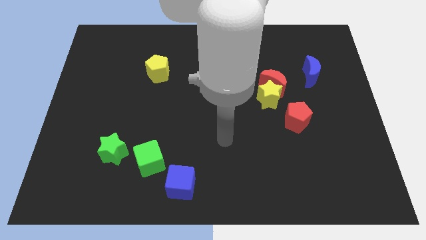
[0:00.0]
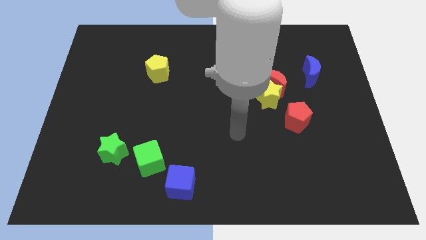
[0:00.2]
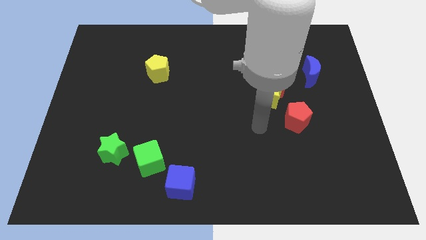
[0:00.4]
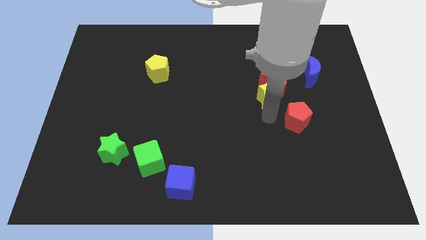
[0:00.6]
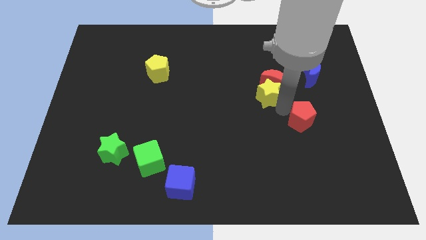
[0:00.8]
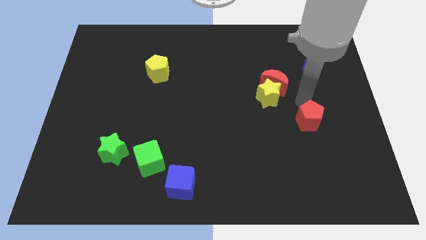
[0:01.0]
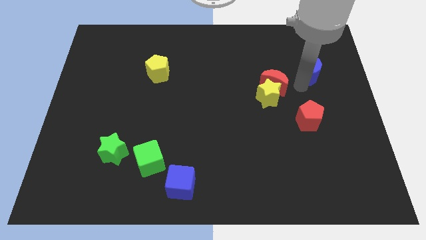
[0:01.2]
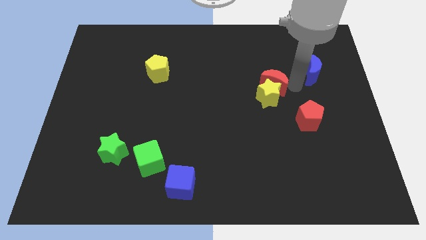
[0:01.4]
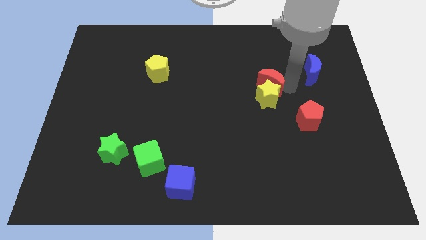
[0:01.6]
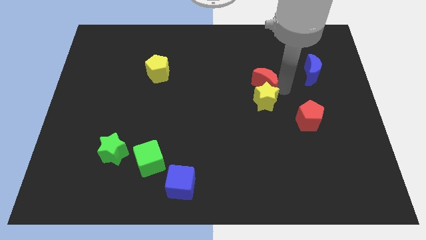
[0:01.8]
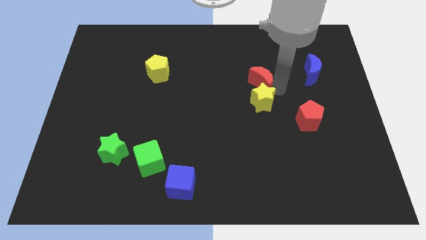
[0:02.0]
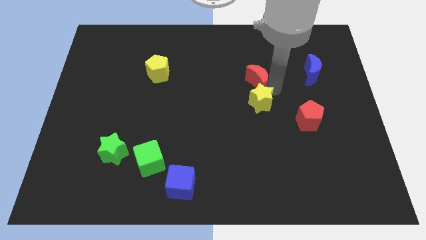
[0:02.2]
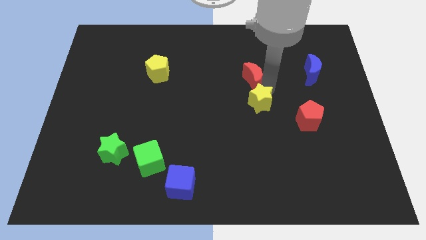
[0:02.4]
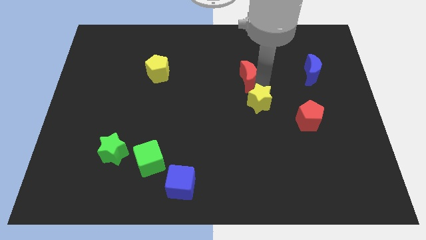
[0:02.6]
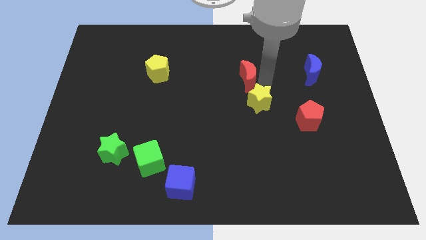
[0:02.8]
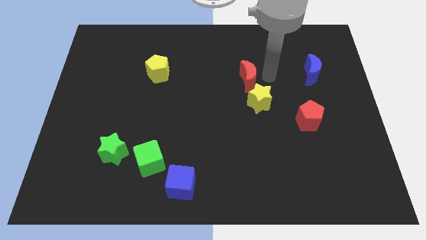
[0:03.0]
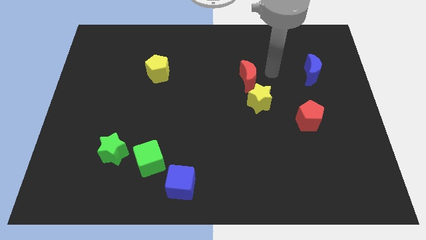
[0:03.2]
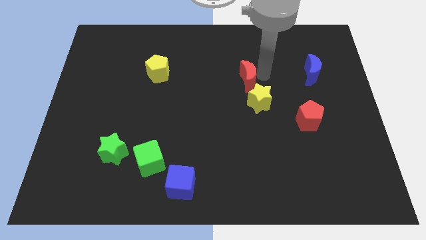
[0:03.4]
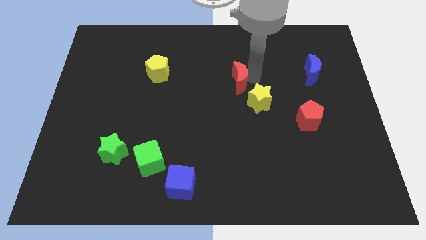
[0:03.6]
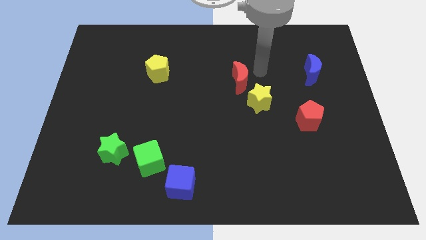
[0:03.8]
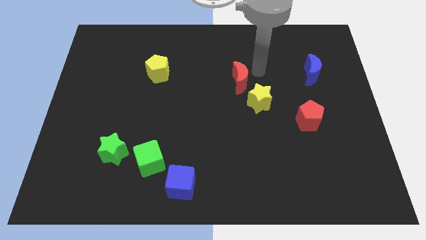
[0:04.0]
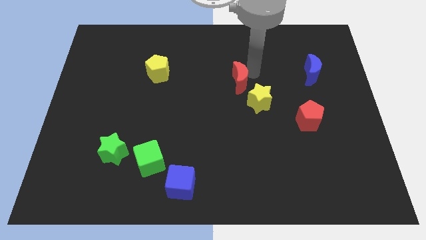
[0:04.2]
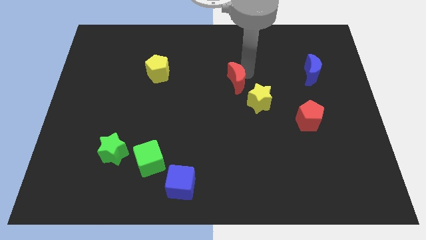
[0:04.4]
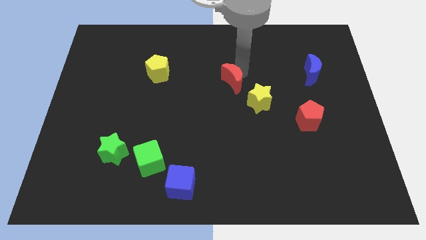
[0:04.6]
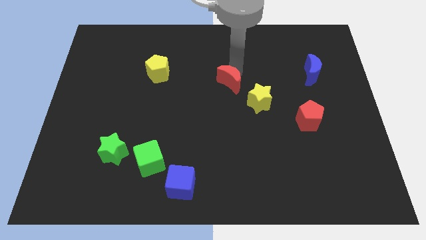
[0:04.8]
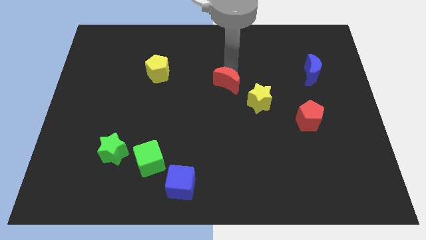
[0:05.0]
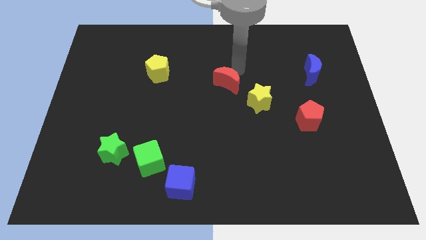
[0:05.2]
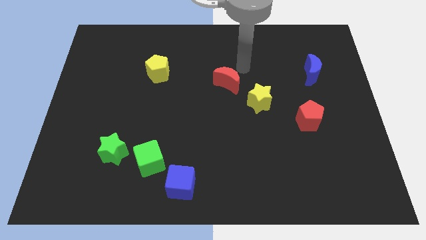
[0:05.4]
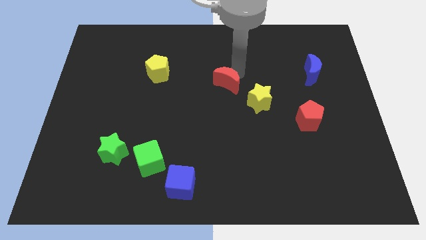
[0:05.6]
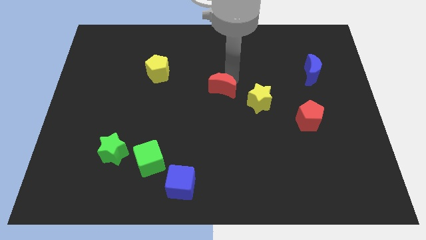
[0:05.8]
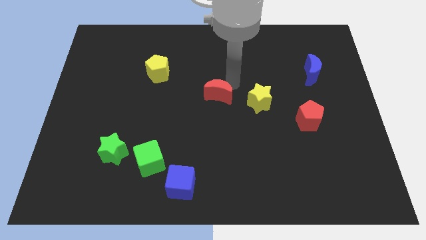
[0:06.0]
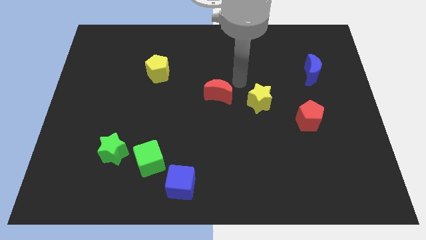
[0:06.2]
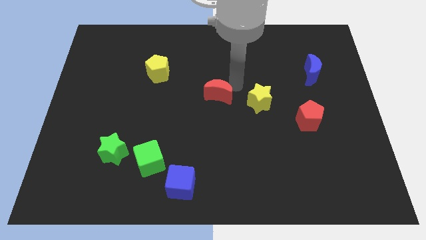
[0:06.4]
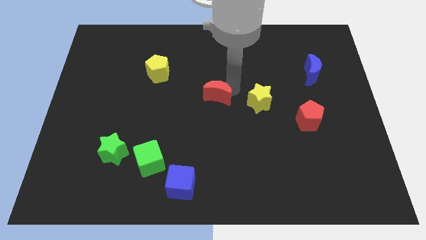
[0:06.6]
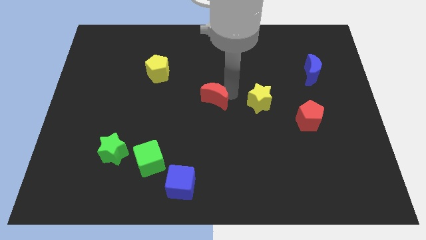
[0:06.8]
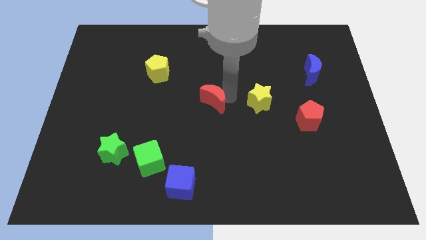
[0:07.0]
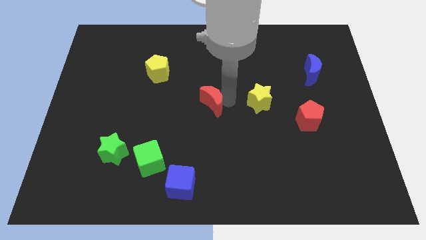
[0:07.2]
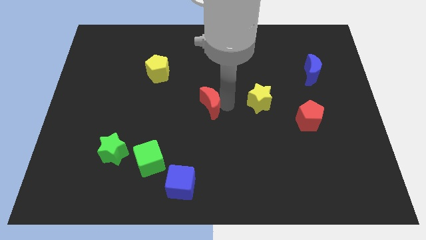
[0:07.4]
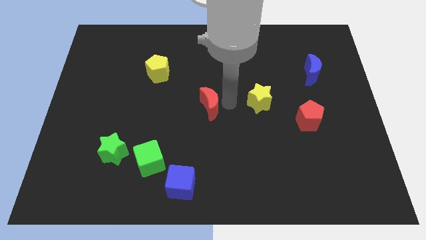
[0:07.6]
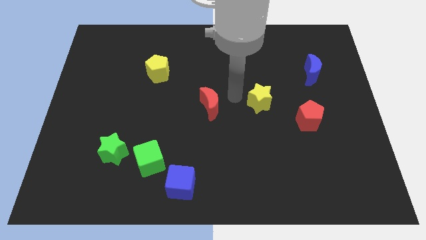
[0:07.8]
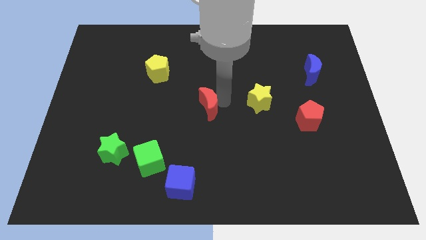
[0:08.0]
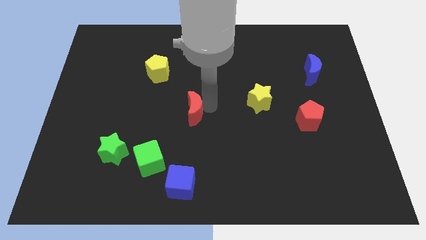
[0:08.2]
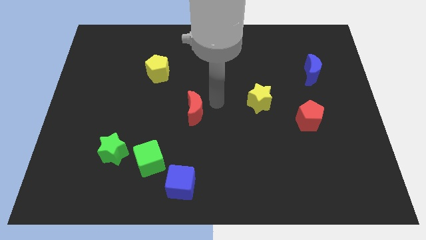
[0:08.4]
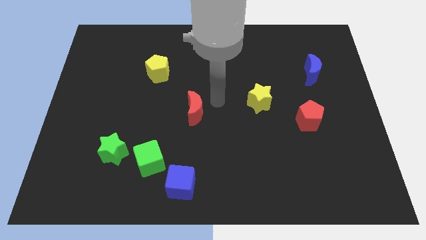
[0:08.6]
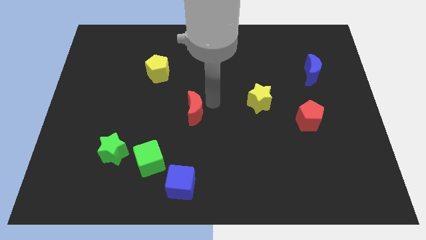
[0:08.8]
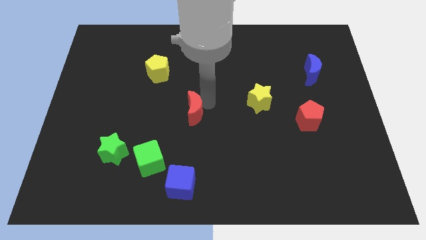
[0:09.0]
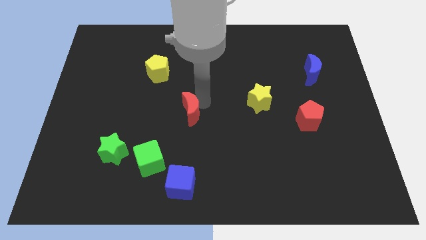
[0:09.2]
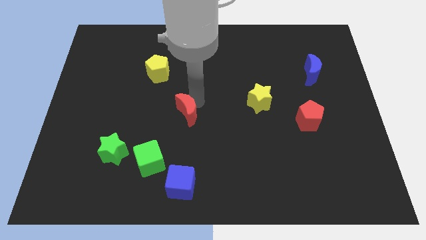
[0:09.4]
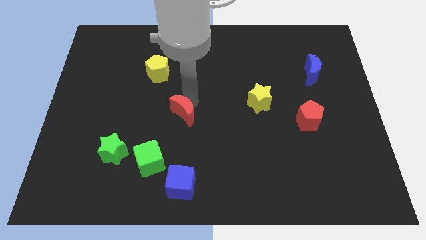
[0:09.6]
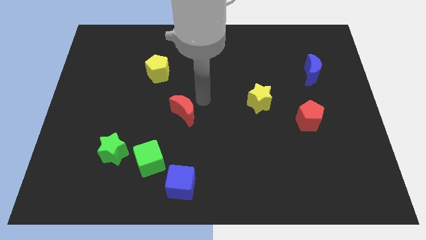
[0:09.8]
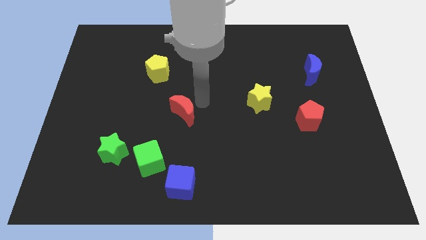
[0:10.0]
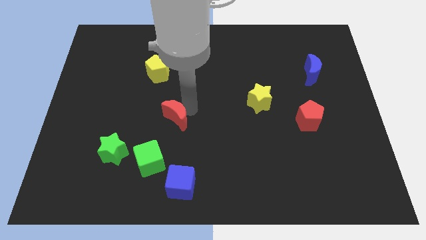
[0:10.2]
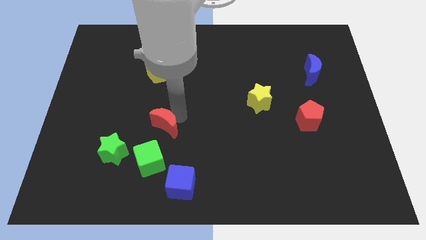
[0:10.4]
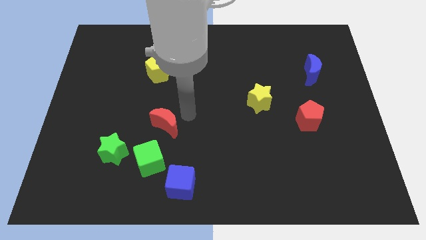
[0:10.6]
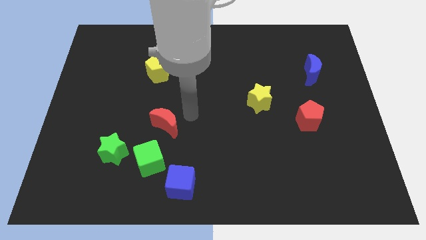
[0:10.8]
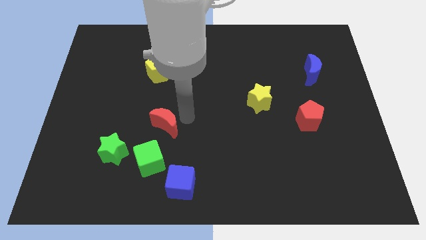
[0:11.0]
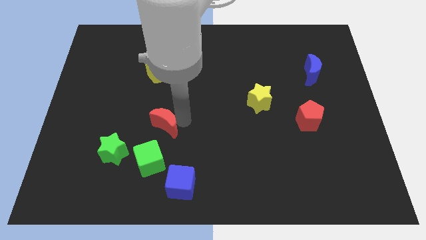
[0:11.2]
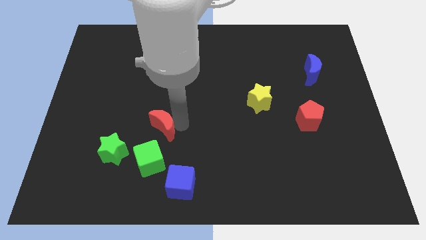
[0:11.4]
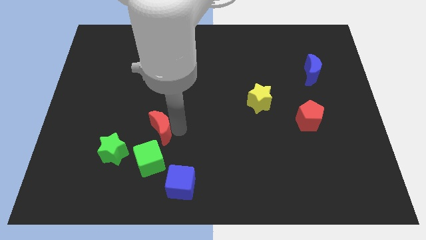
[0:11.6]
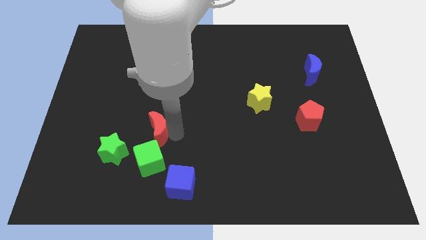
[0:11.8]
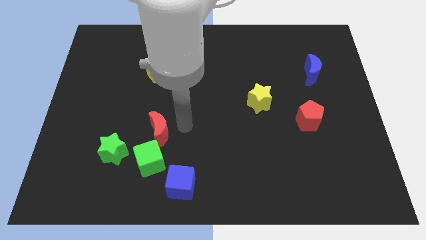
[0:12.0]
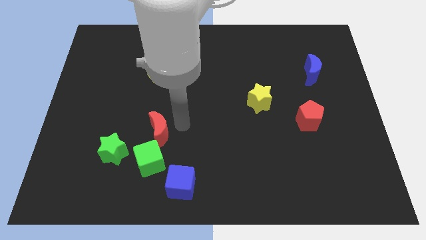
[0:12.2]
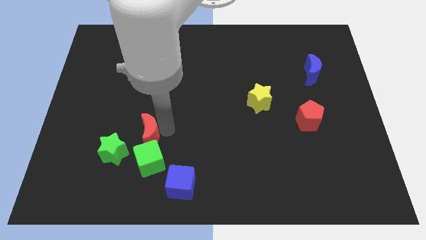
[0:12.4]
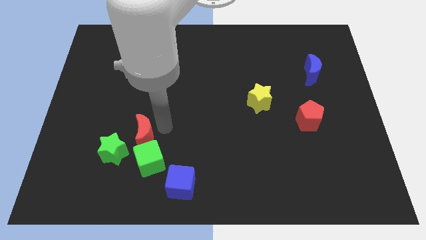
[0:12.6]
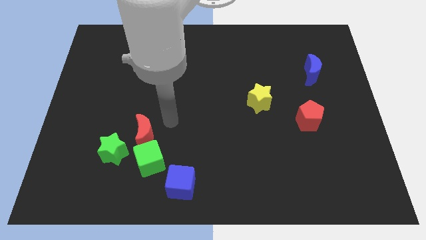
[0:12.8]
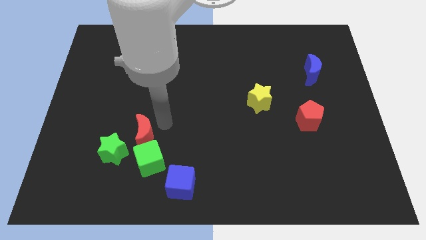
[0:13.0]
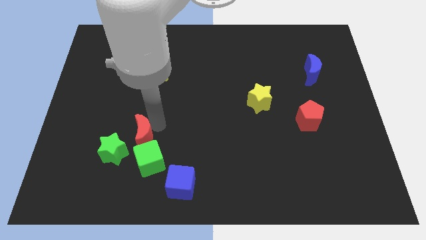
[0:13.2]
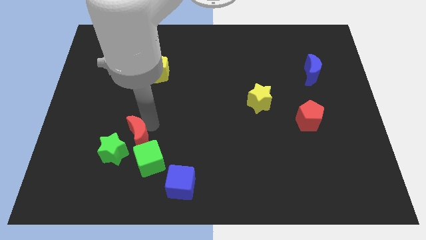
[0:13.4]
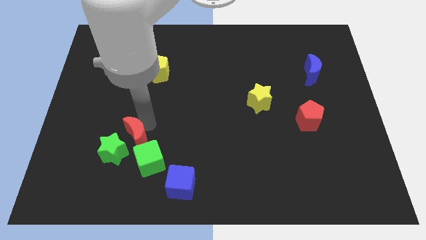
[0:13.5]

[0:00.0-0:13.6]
push the red moon next to the green star
